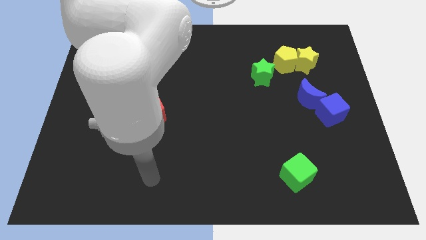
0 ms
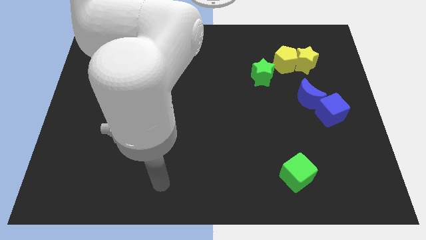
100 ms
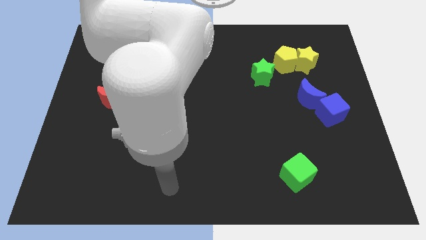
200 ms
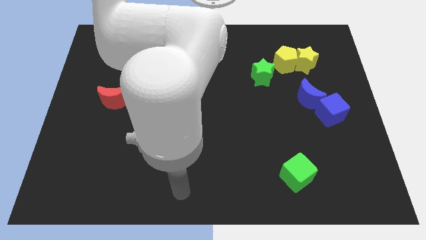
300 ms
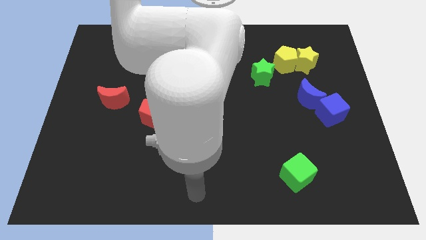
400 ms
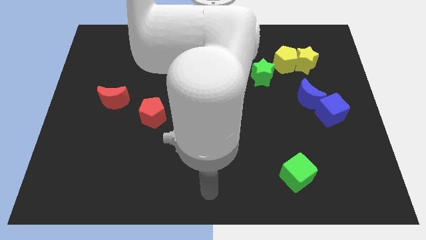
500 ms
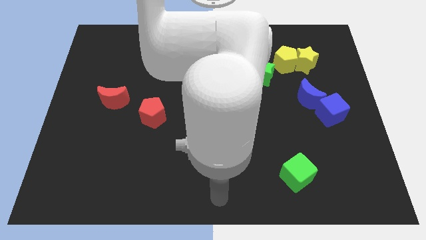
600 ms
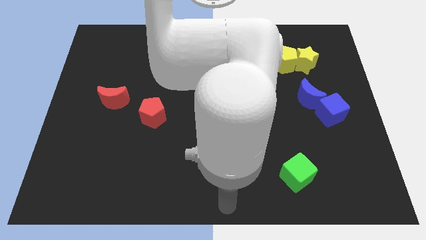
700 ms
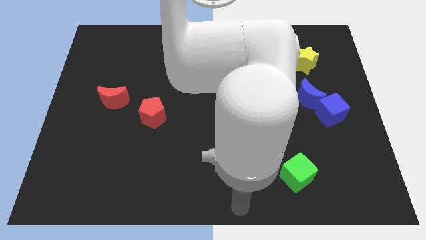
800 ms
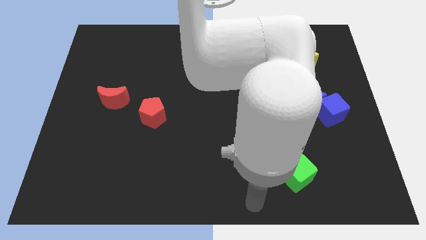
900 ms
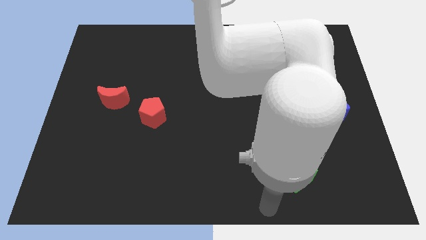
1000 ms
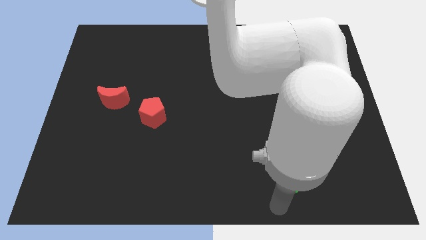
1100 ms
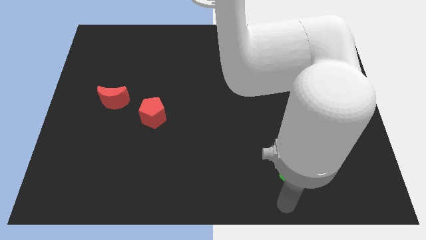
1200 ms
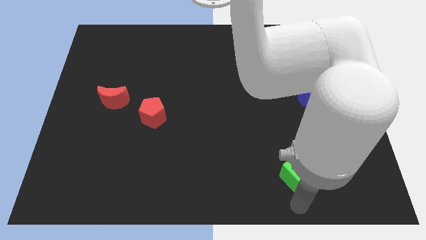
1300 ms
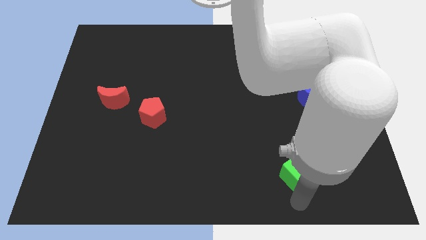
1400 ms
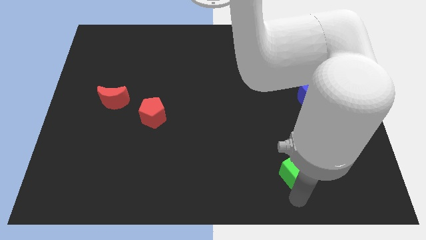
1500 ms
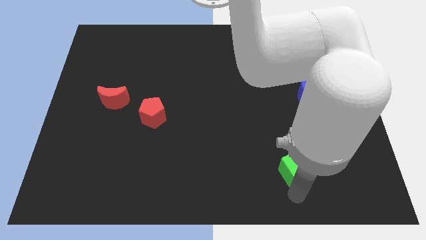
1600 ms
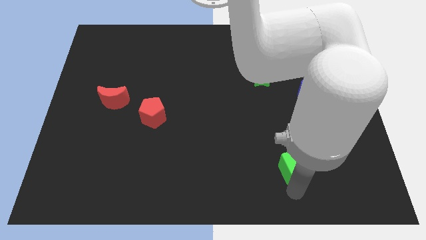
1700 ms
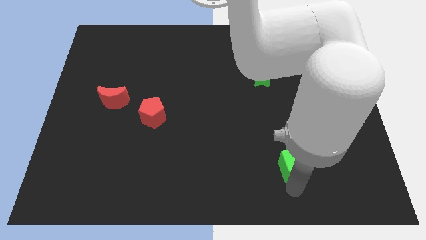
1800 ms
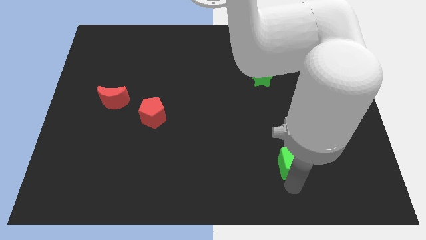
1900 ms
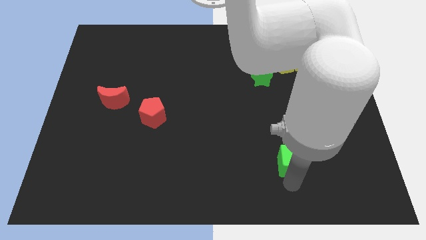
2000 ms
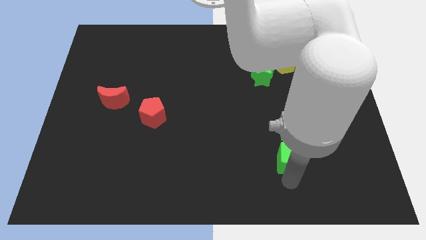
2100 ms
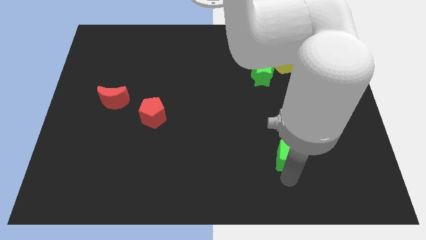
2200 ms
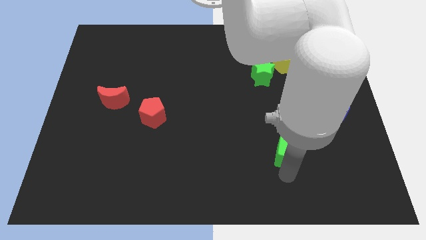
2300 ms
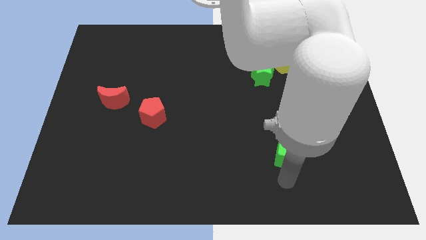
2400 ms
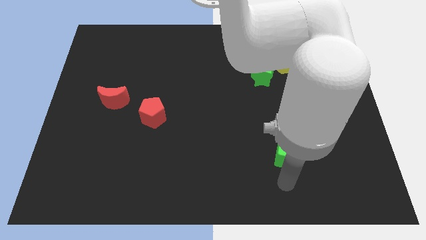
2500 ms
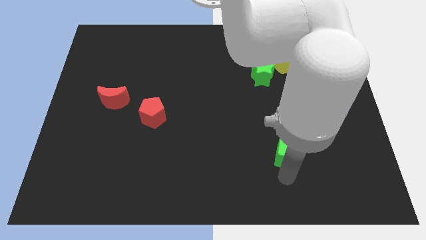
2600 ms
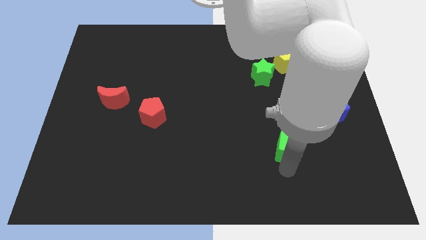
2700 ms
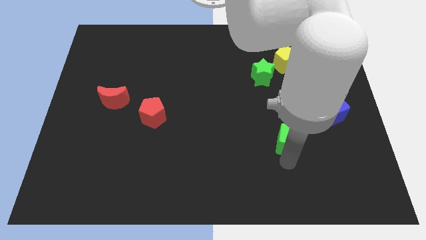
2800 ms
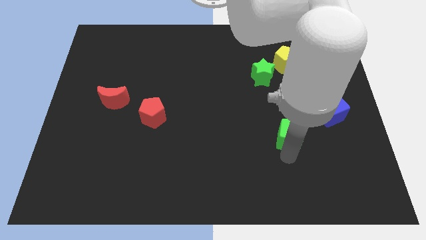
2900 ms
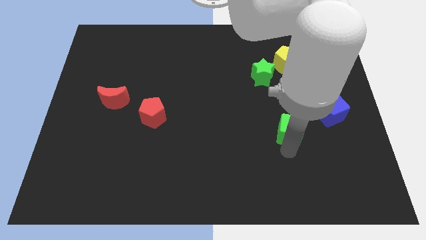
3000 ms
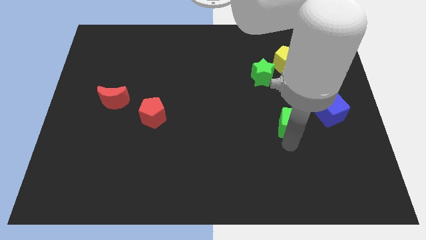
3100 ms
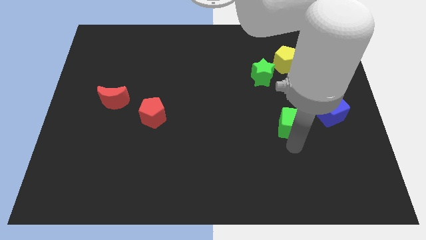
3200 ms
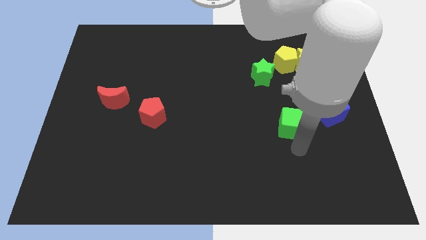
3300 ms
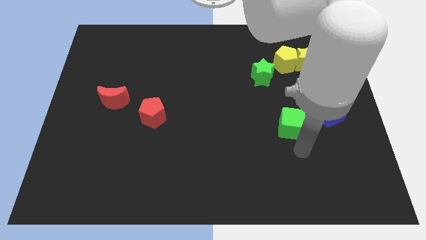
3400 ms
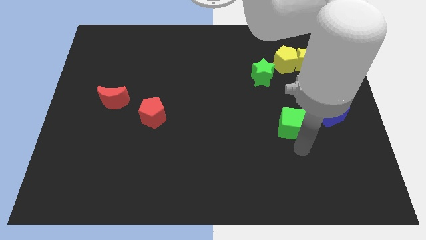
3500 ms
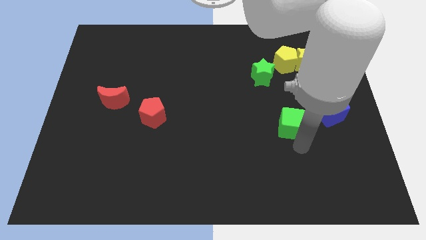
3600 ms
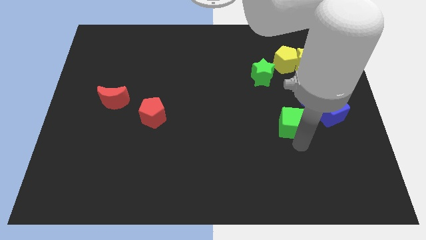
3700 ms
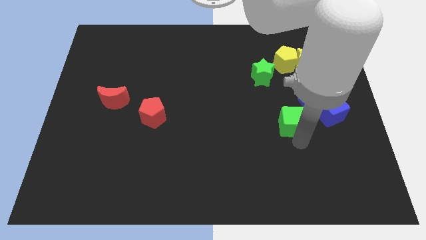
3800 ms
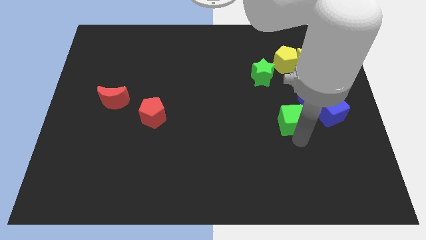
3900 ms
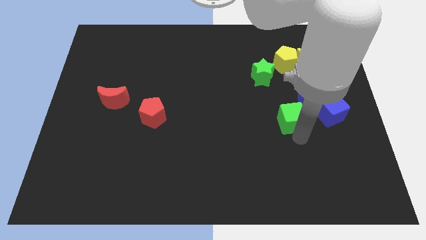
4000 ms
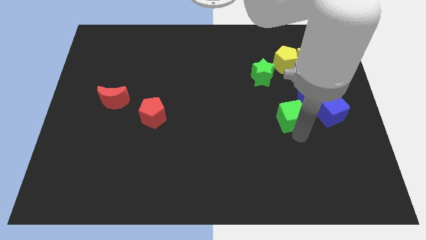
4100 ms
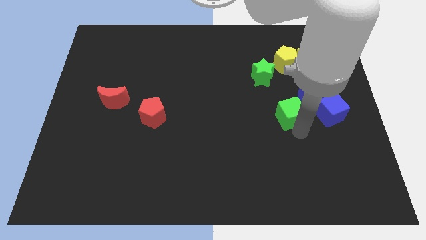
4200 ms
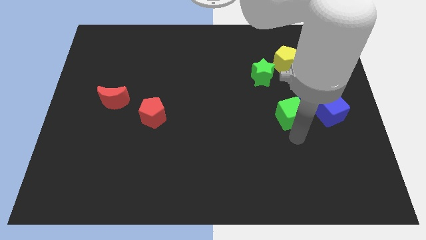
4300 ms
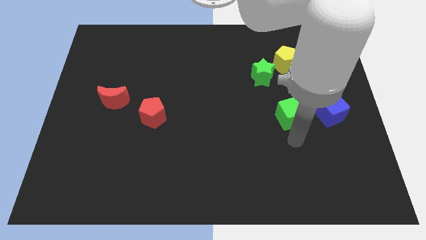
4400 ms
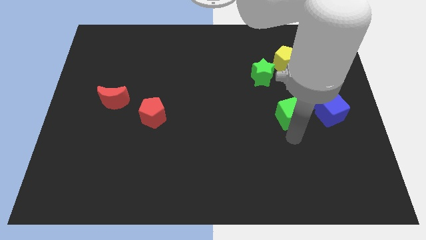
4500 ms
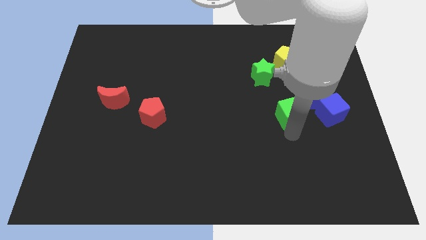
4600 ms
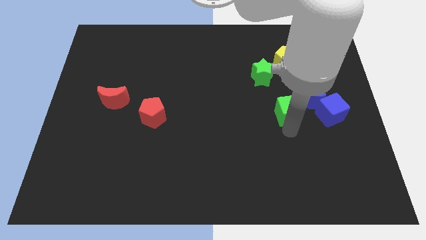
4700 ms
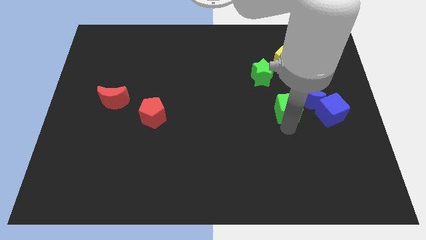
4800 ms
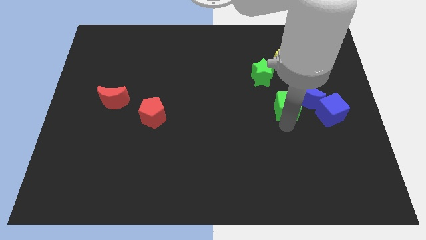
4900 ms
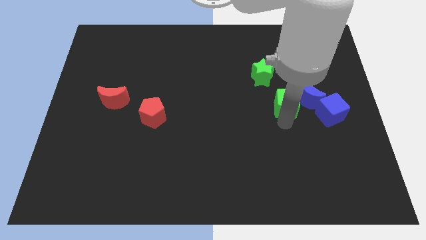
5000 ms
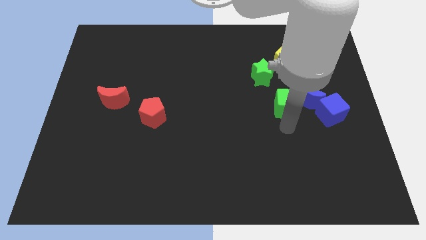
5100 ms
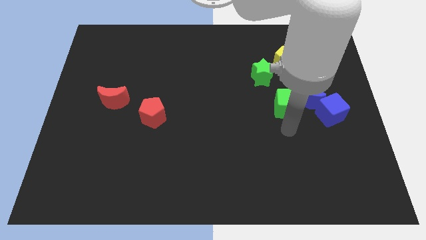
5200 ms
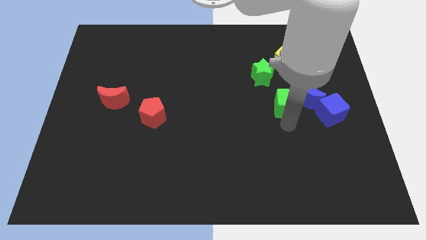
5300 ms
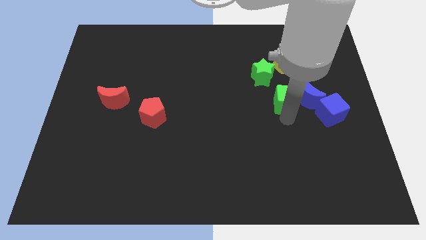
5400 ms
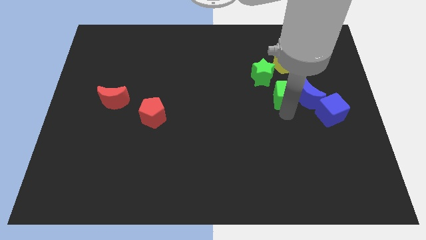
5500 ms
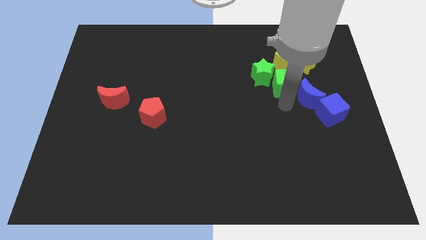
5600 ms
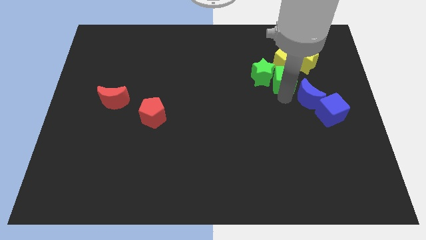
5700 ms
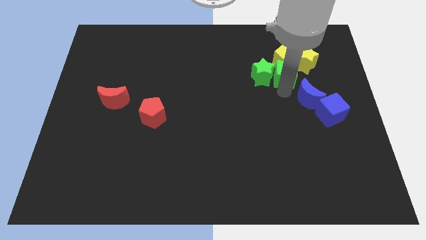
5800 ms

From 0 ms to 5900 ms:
slide the green cube close to the yellow pentagon

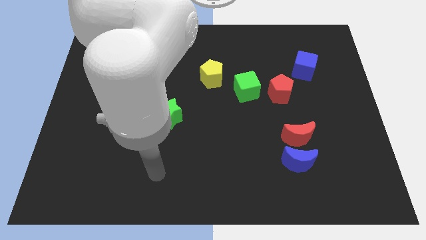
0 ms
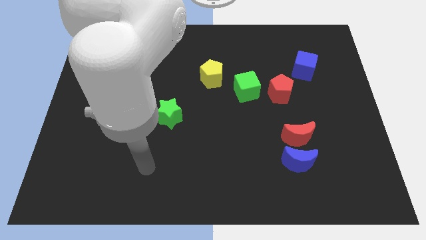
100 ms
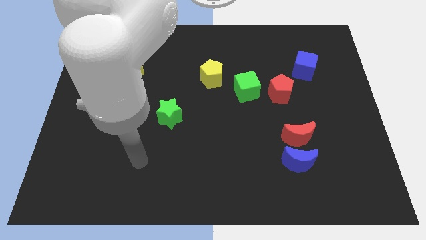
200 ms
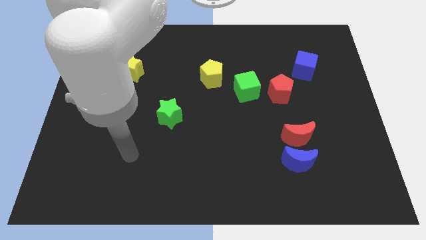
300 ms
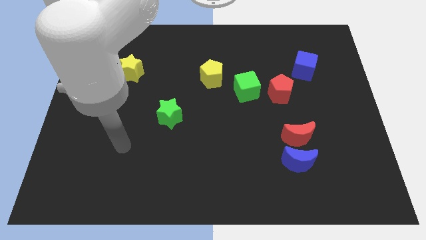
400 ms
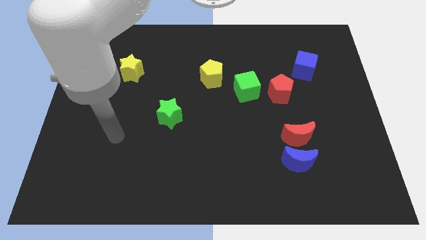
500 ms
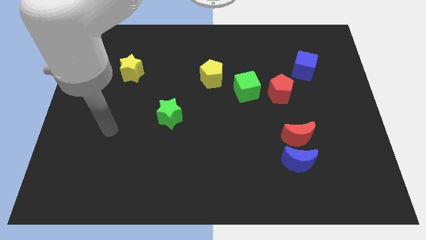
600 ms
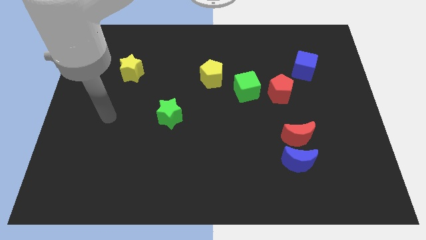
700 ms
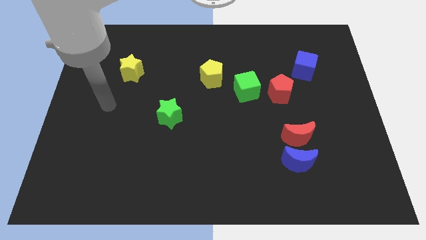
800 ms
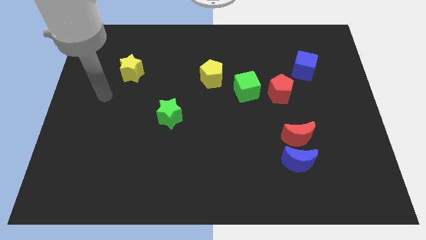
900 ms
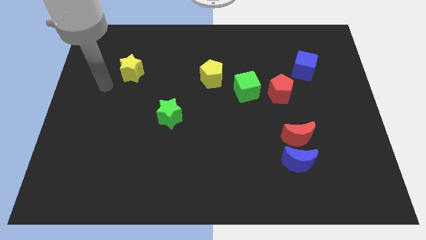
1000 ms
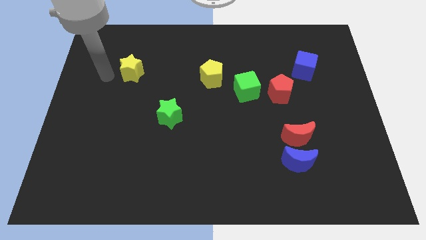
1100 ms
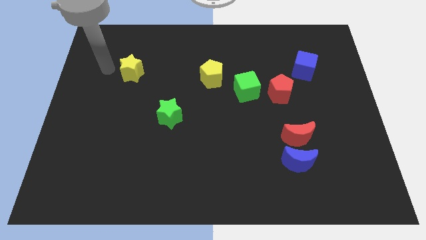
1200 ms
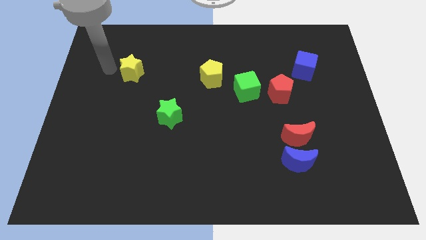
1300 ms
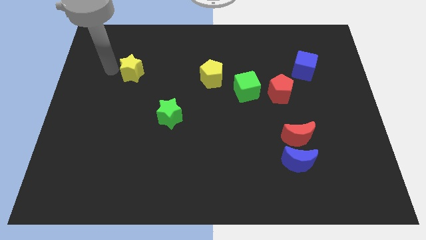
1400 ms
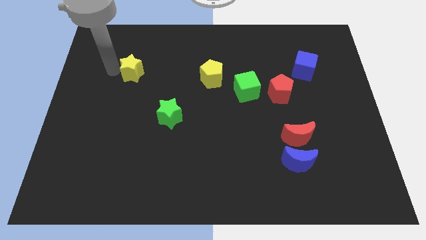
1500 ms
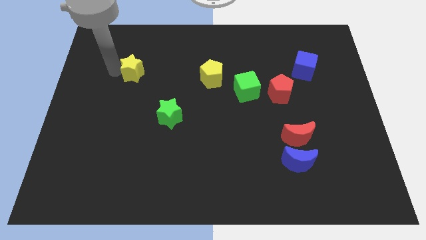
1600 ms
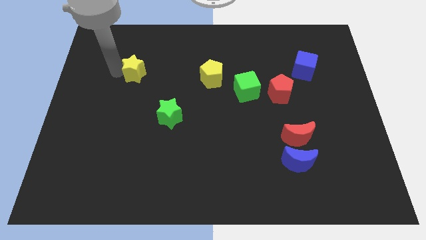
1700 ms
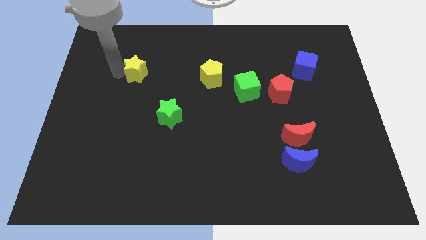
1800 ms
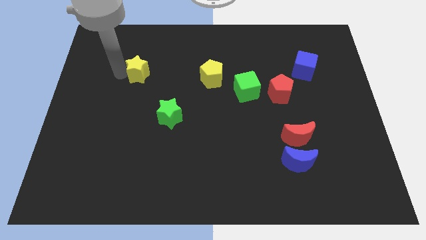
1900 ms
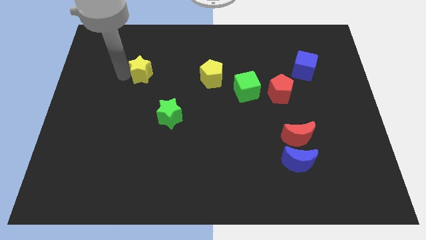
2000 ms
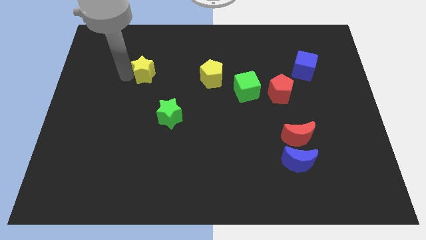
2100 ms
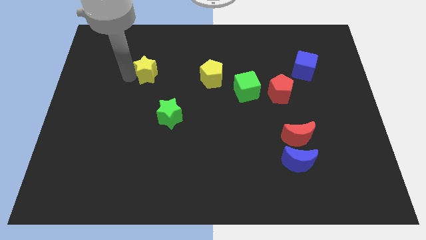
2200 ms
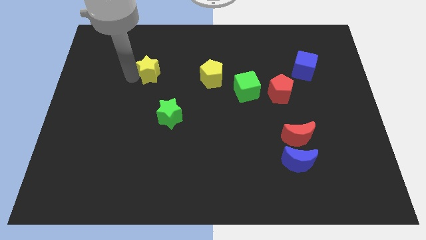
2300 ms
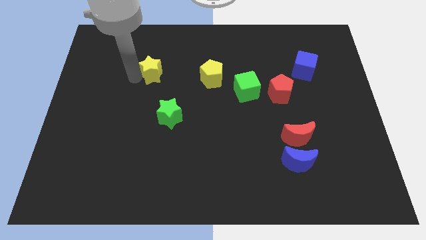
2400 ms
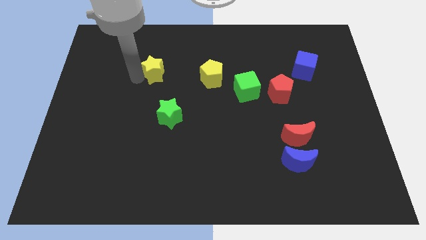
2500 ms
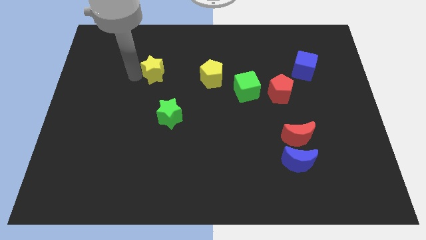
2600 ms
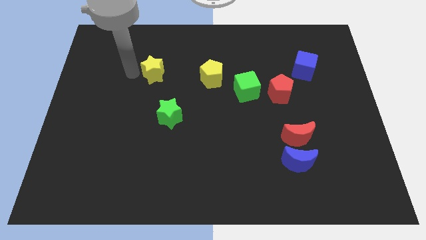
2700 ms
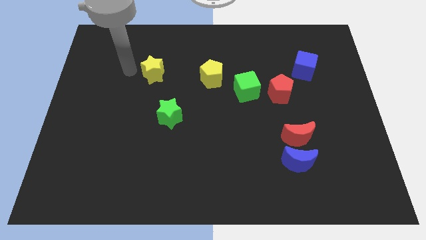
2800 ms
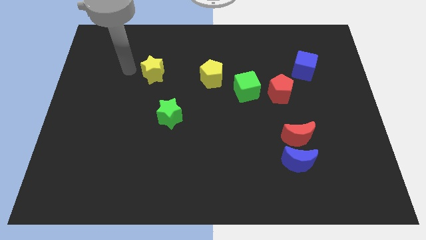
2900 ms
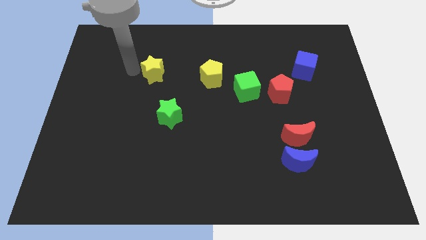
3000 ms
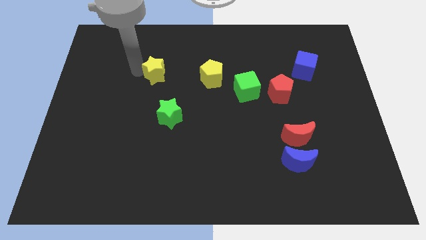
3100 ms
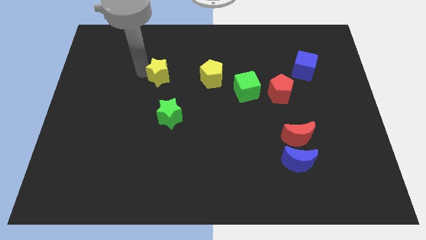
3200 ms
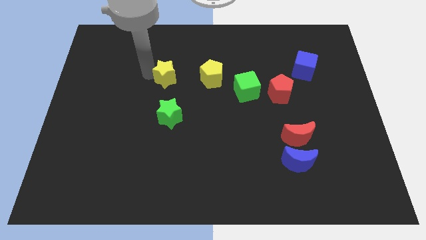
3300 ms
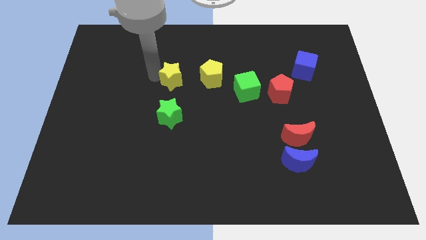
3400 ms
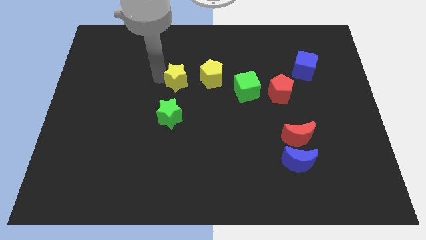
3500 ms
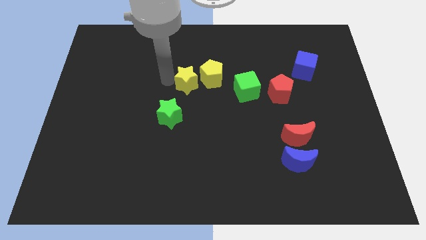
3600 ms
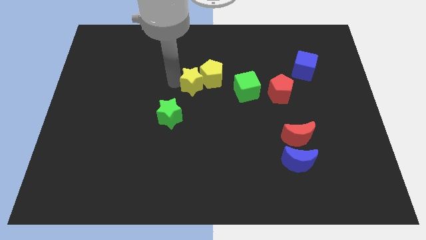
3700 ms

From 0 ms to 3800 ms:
push the yellow star towards the yellow pentagon
